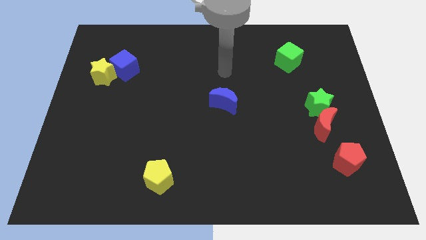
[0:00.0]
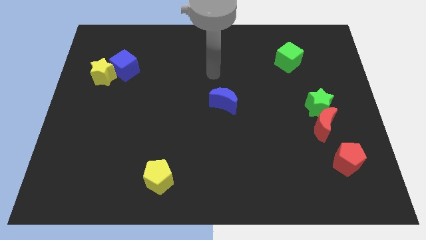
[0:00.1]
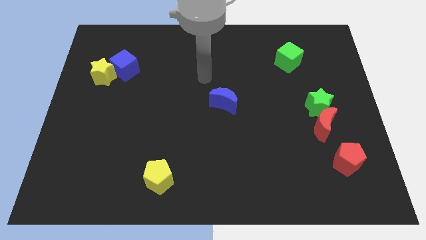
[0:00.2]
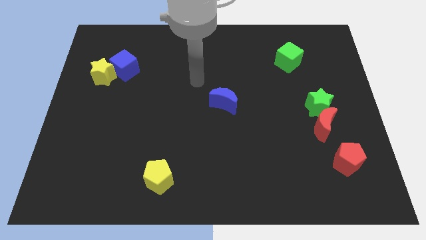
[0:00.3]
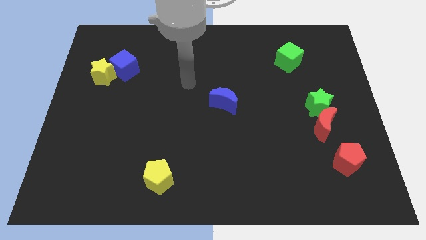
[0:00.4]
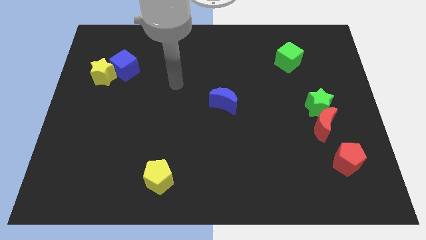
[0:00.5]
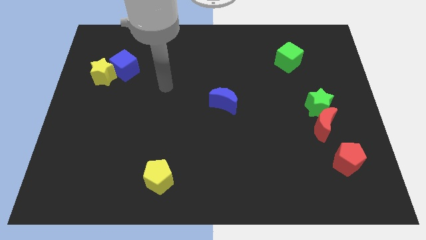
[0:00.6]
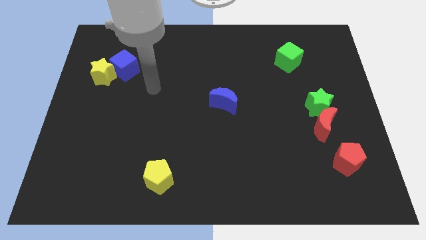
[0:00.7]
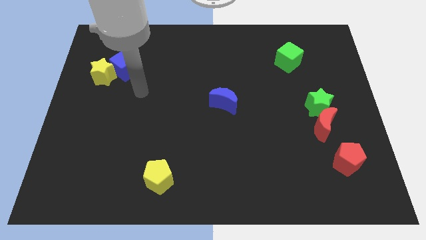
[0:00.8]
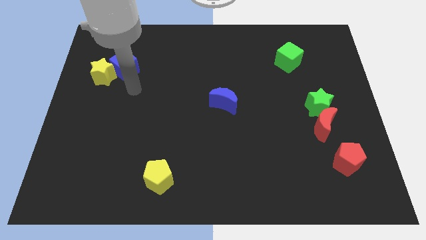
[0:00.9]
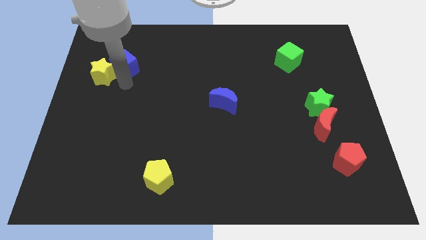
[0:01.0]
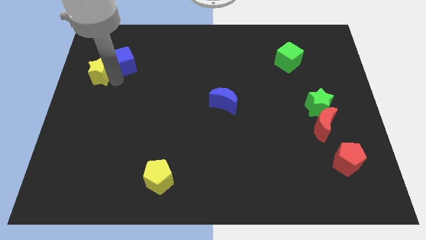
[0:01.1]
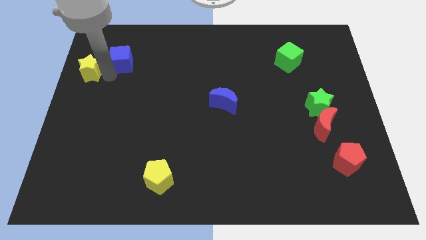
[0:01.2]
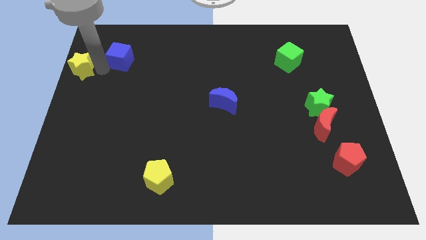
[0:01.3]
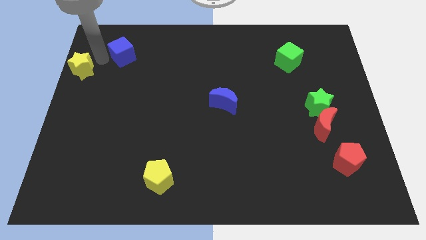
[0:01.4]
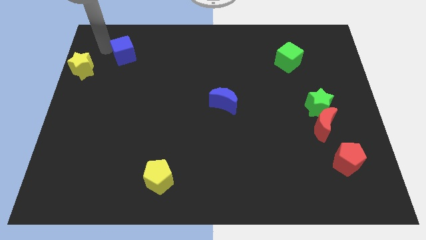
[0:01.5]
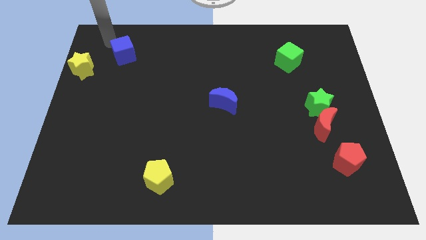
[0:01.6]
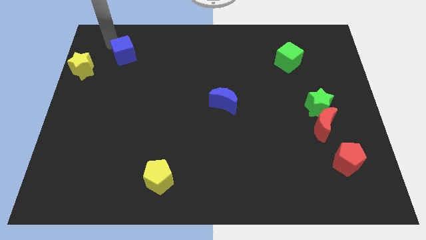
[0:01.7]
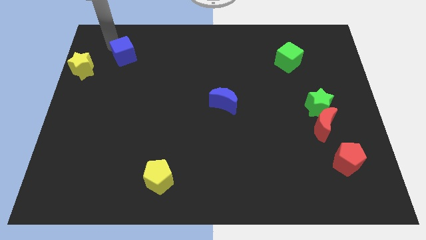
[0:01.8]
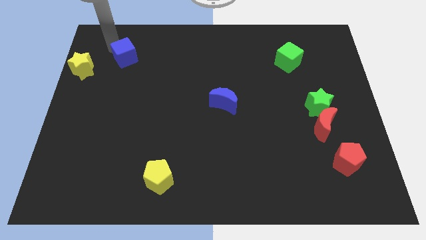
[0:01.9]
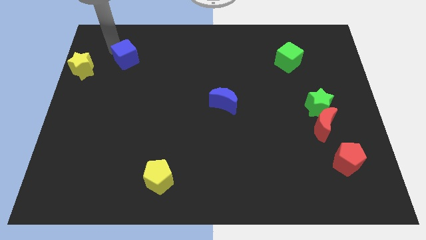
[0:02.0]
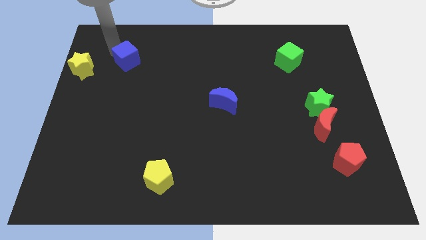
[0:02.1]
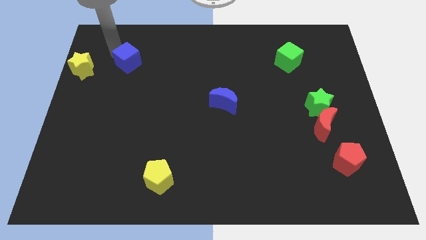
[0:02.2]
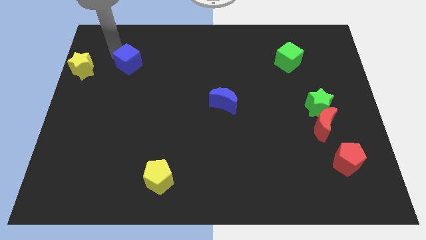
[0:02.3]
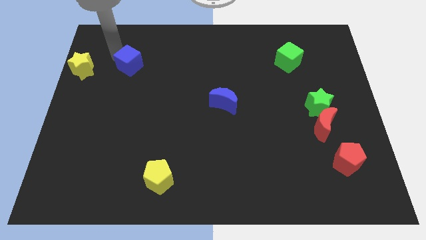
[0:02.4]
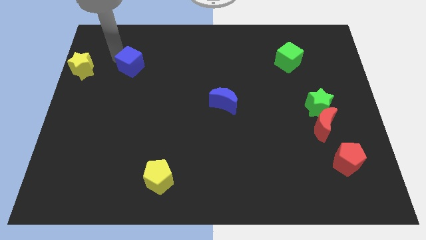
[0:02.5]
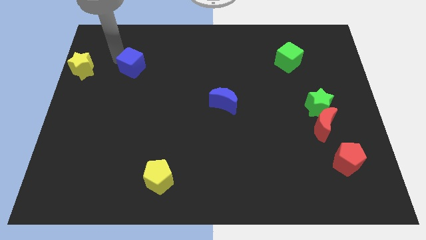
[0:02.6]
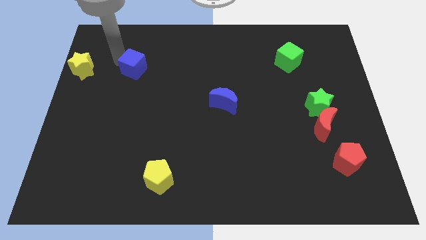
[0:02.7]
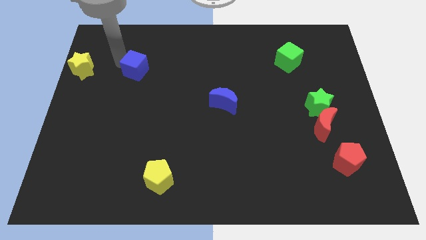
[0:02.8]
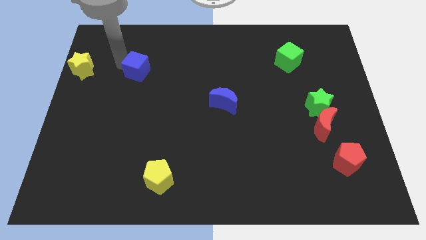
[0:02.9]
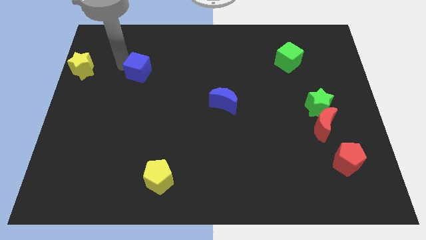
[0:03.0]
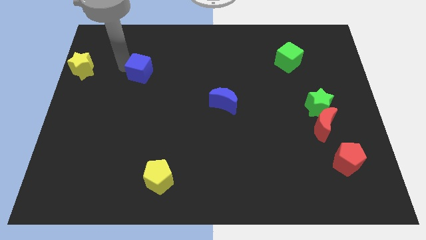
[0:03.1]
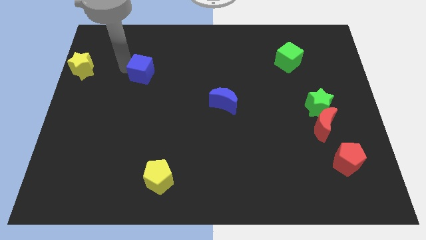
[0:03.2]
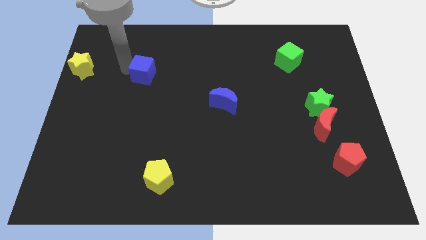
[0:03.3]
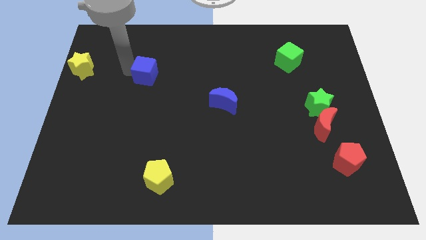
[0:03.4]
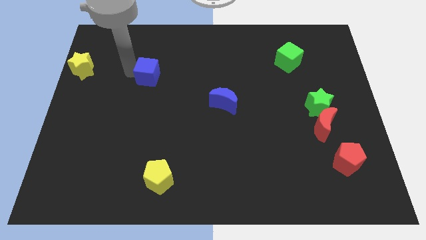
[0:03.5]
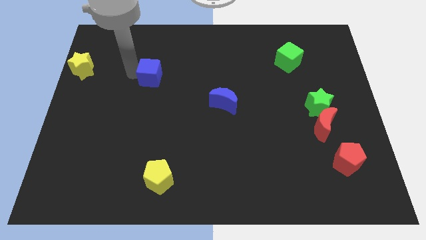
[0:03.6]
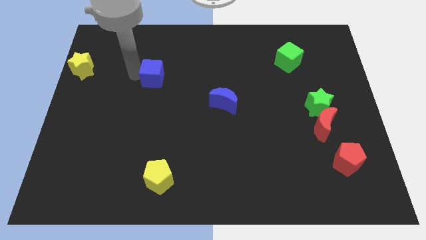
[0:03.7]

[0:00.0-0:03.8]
move the blue cube slightly to the right

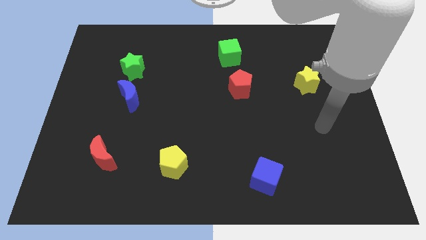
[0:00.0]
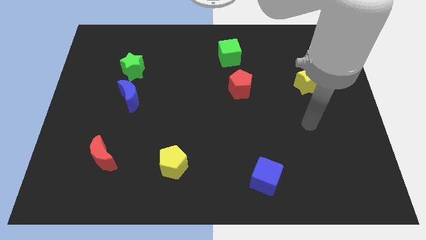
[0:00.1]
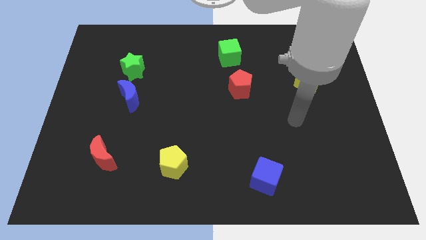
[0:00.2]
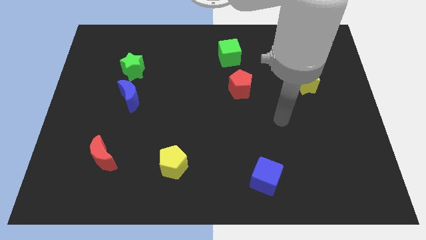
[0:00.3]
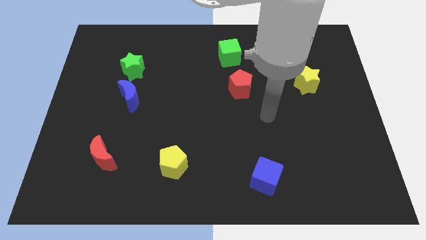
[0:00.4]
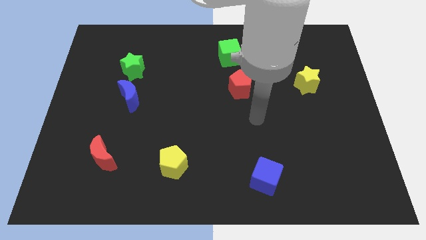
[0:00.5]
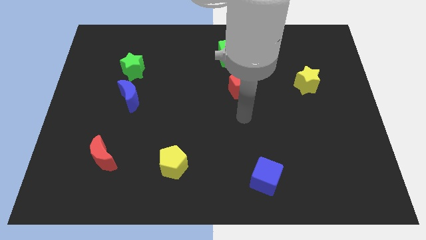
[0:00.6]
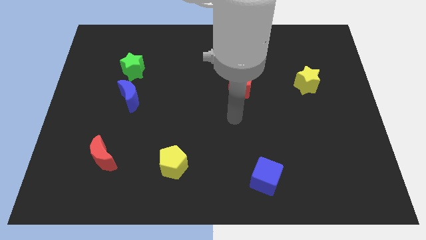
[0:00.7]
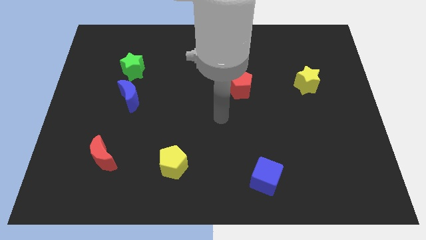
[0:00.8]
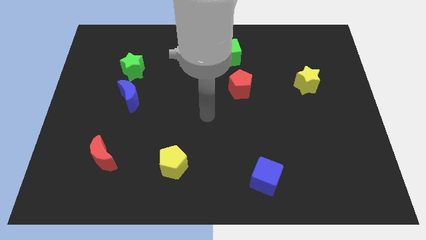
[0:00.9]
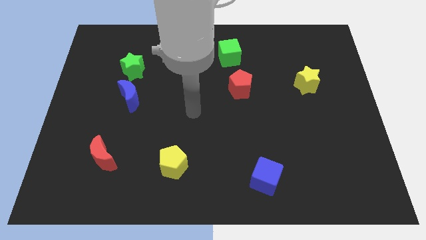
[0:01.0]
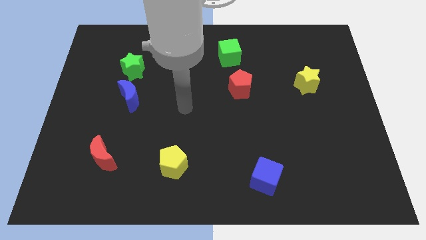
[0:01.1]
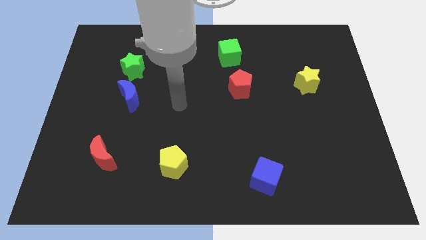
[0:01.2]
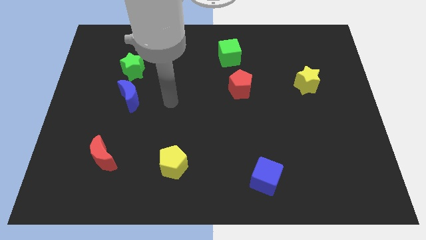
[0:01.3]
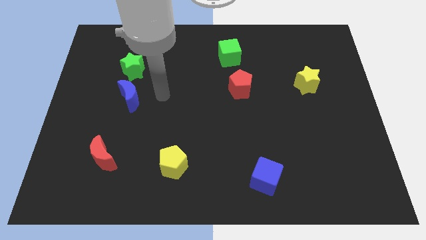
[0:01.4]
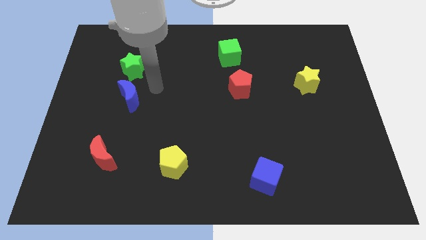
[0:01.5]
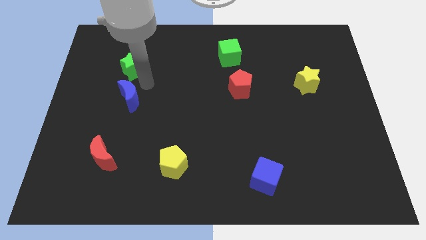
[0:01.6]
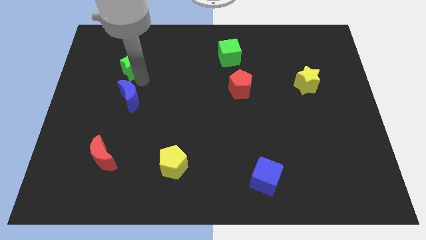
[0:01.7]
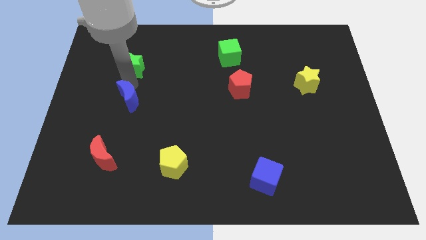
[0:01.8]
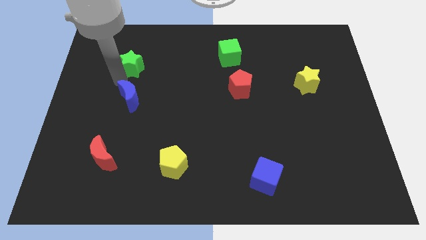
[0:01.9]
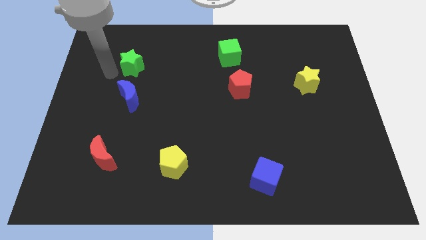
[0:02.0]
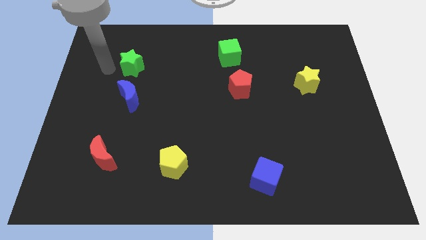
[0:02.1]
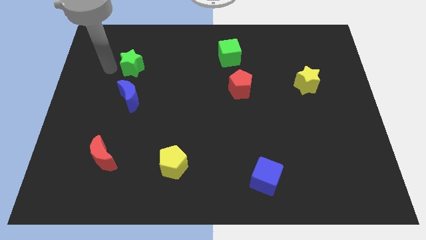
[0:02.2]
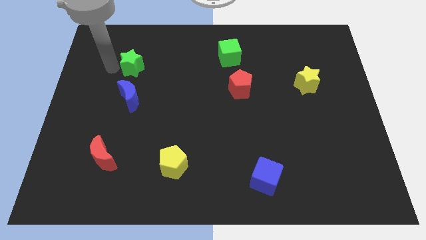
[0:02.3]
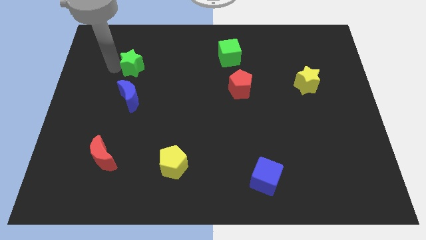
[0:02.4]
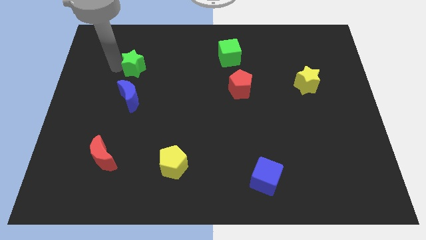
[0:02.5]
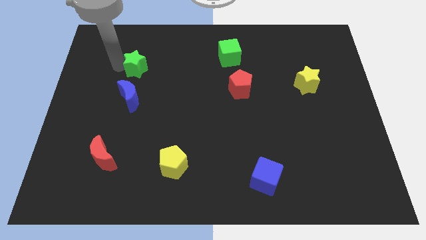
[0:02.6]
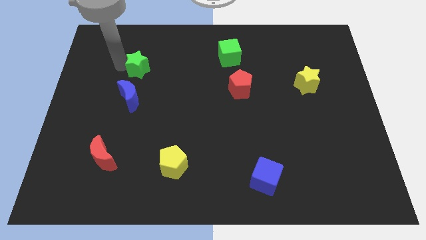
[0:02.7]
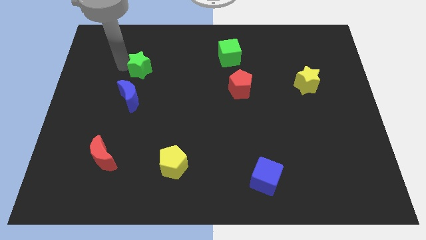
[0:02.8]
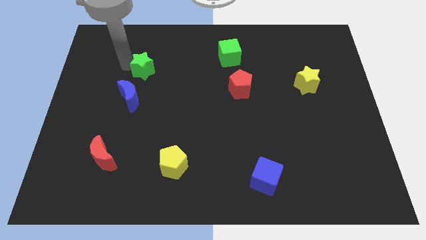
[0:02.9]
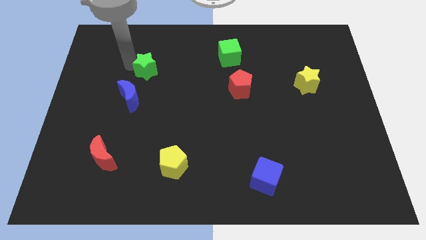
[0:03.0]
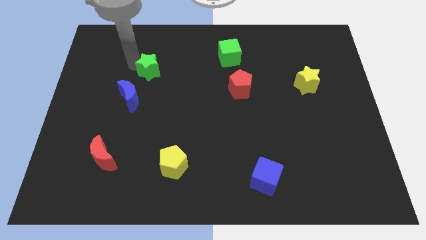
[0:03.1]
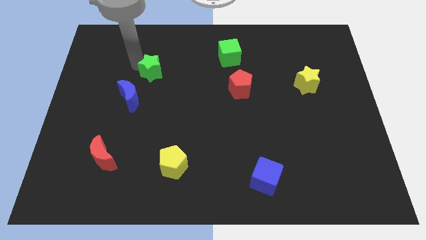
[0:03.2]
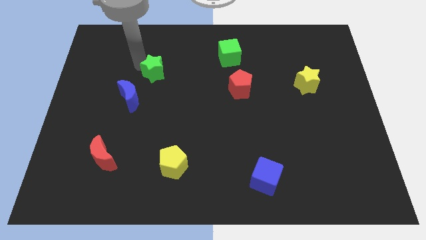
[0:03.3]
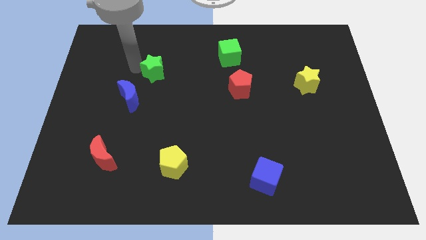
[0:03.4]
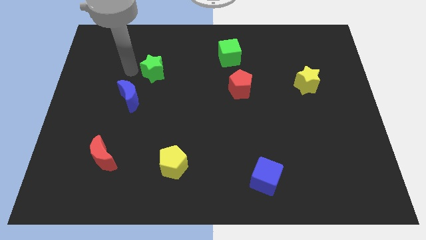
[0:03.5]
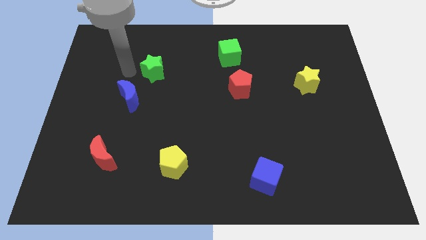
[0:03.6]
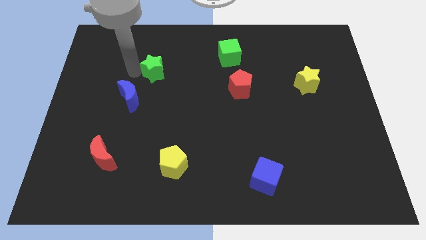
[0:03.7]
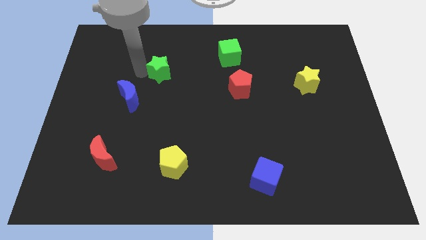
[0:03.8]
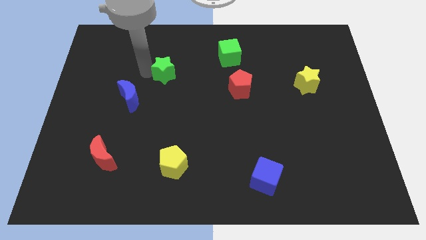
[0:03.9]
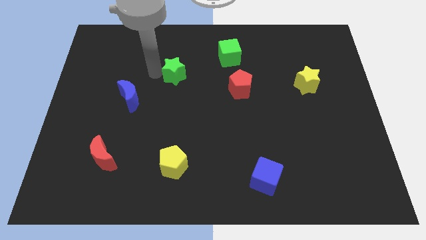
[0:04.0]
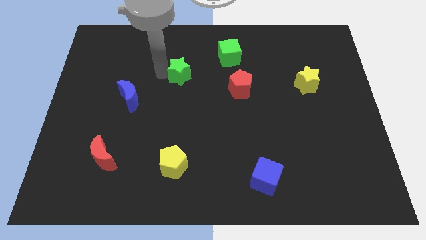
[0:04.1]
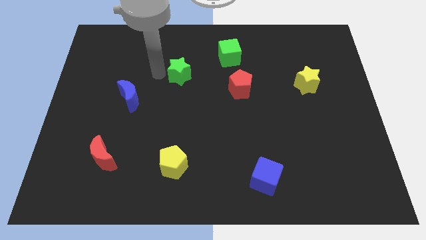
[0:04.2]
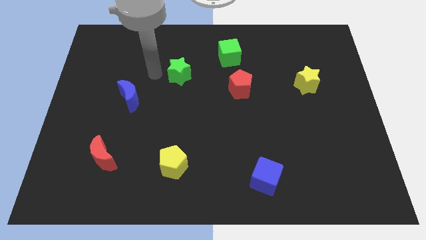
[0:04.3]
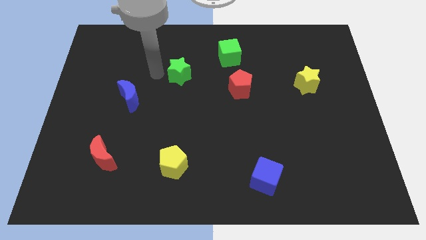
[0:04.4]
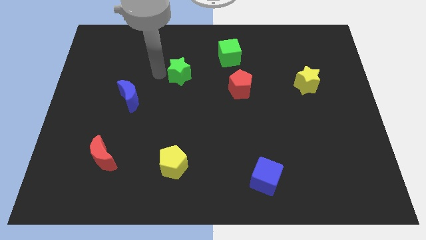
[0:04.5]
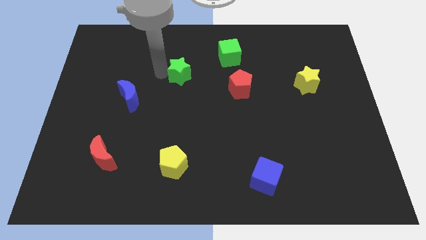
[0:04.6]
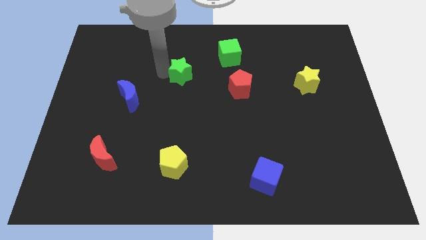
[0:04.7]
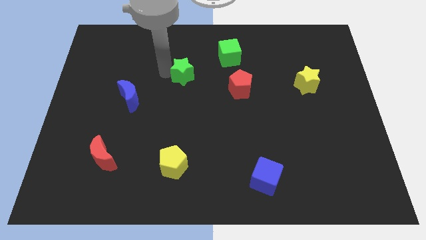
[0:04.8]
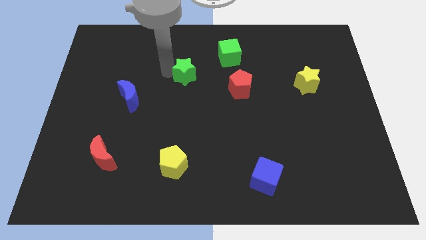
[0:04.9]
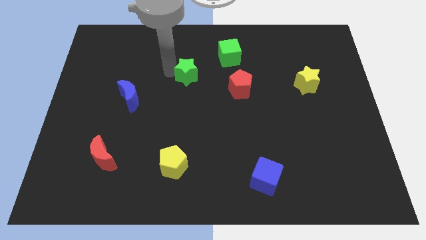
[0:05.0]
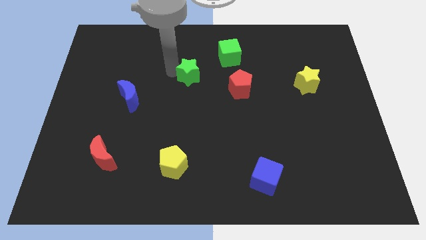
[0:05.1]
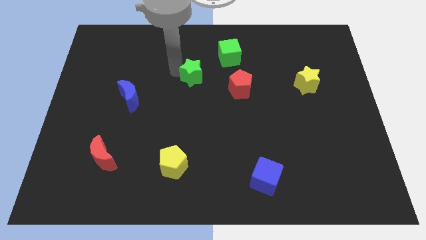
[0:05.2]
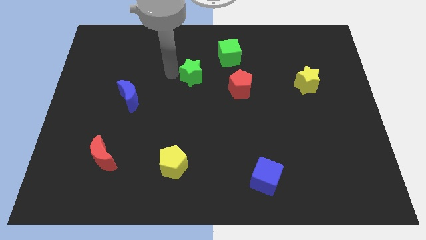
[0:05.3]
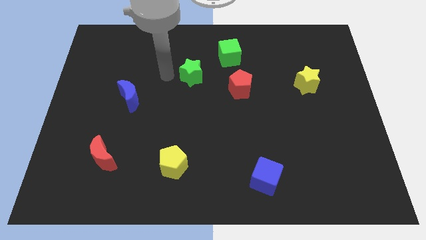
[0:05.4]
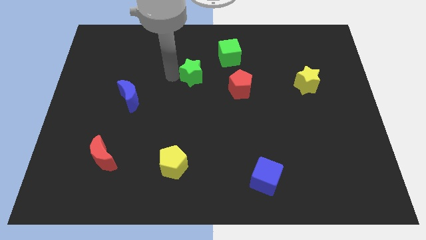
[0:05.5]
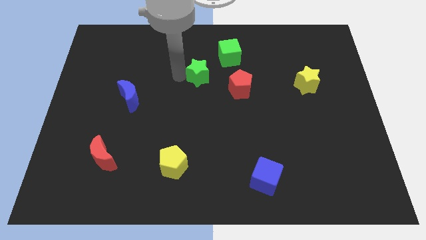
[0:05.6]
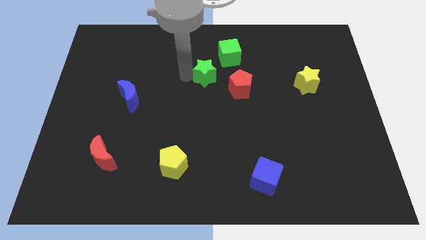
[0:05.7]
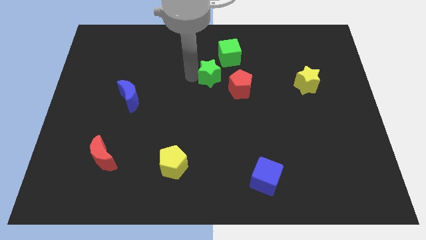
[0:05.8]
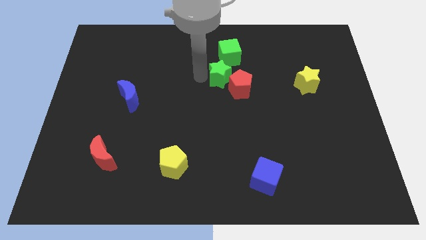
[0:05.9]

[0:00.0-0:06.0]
push the green star to the right
